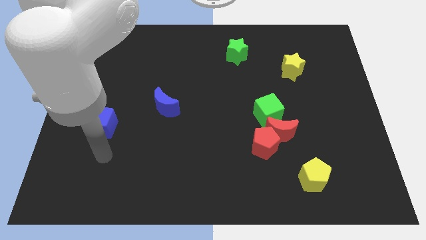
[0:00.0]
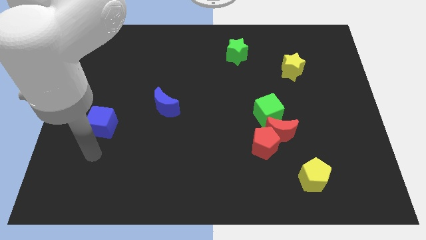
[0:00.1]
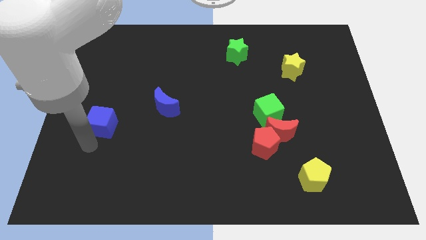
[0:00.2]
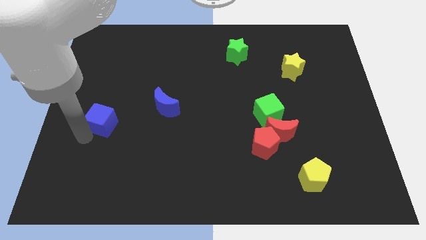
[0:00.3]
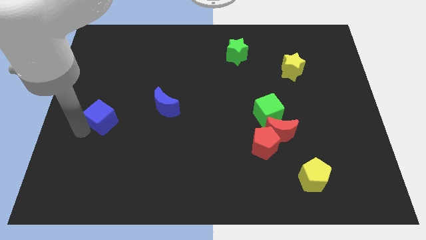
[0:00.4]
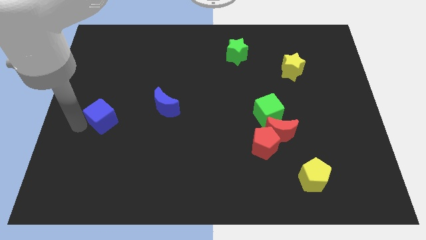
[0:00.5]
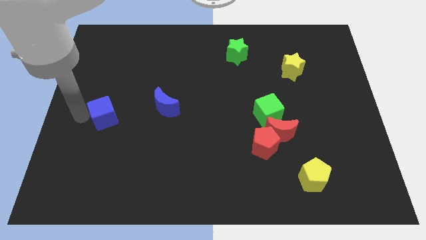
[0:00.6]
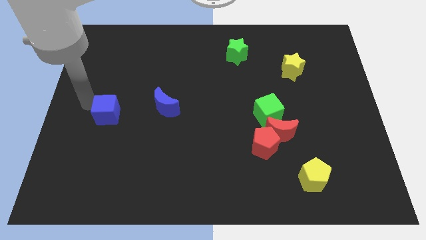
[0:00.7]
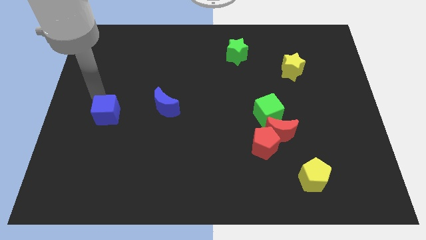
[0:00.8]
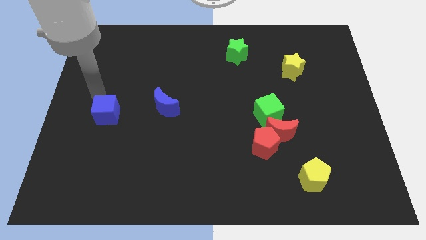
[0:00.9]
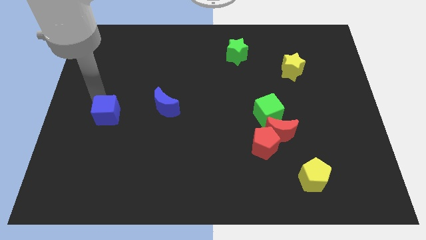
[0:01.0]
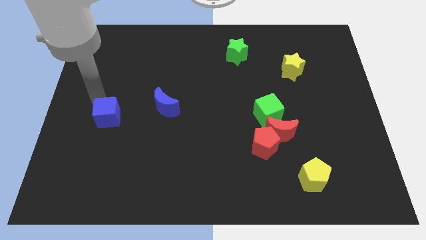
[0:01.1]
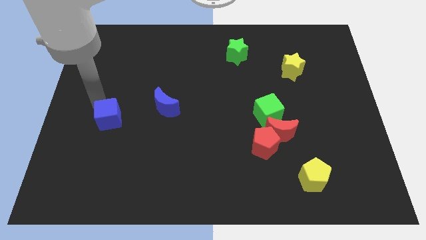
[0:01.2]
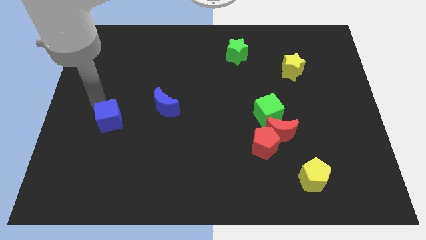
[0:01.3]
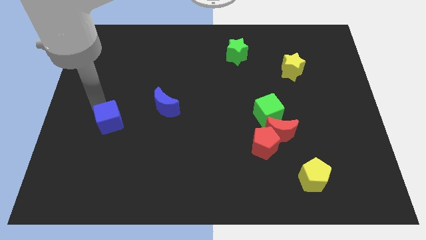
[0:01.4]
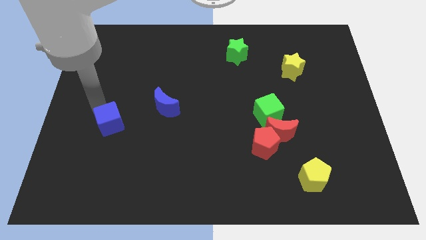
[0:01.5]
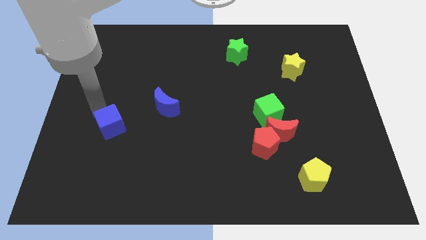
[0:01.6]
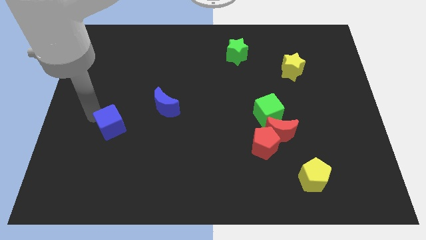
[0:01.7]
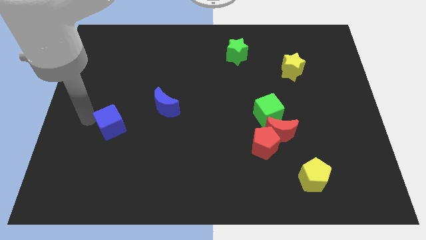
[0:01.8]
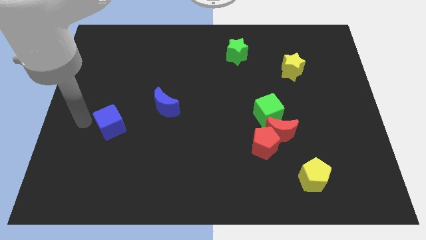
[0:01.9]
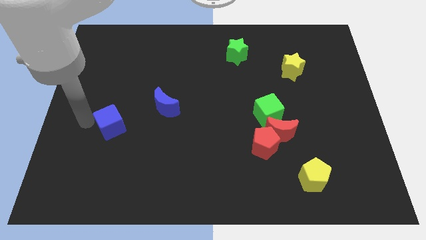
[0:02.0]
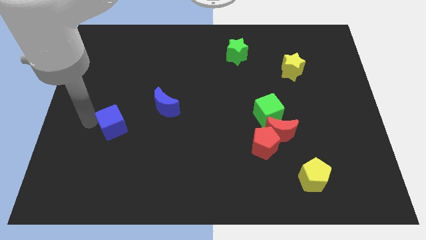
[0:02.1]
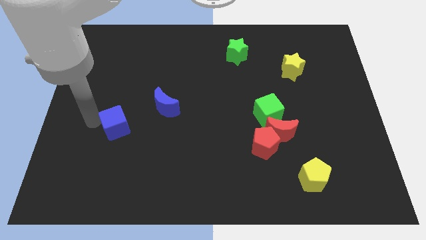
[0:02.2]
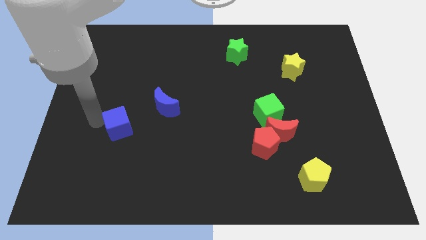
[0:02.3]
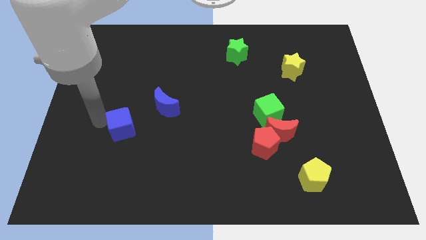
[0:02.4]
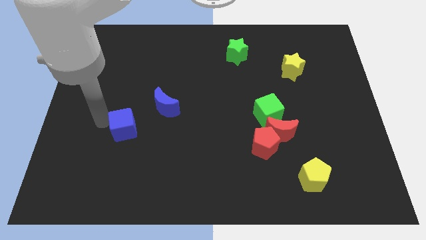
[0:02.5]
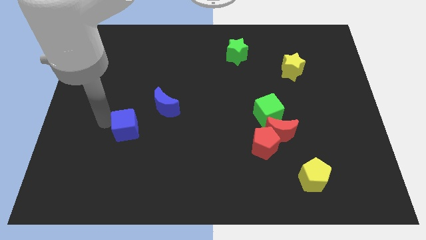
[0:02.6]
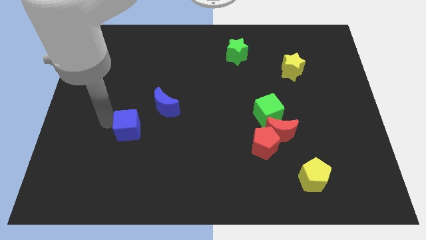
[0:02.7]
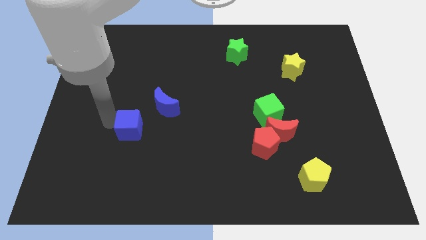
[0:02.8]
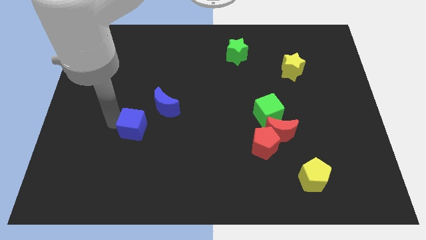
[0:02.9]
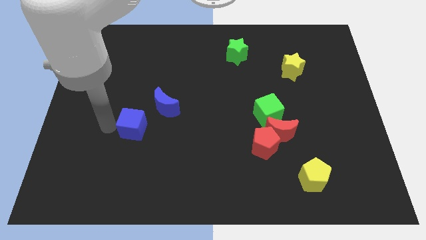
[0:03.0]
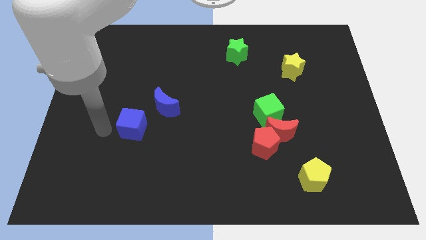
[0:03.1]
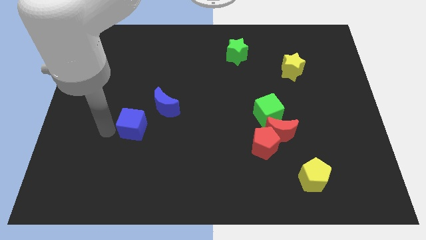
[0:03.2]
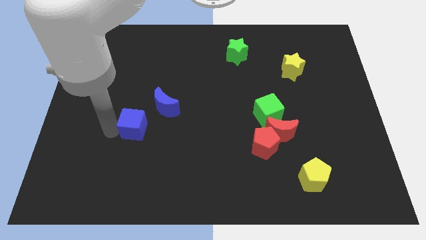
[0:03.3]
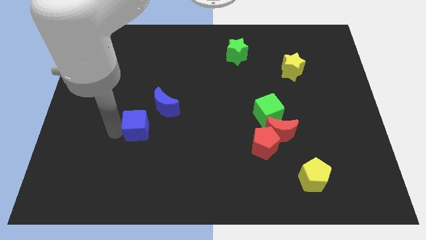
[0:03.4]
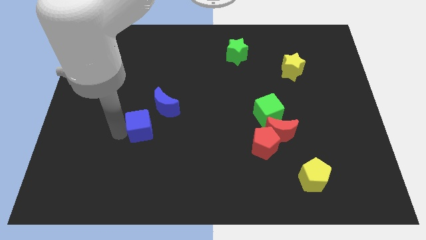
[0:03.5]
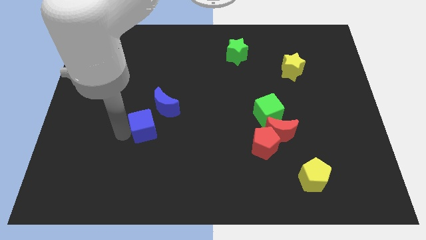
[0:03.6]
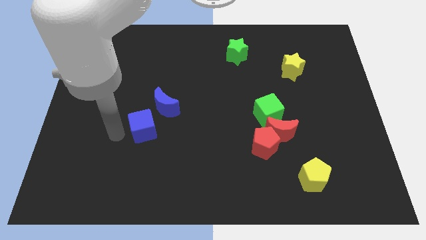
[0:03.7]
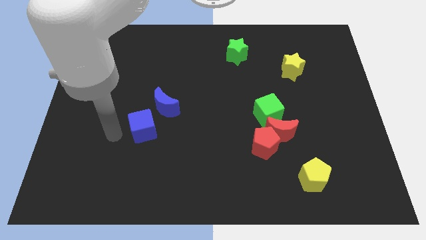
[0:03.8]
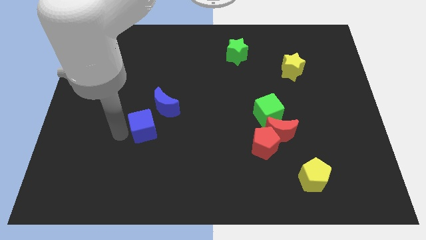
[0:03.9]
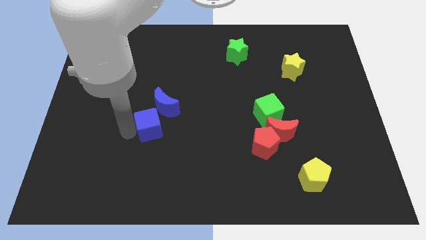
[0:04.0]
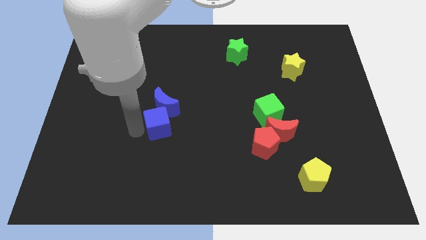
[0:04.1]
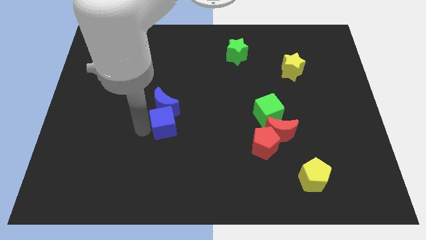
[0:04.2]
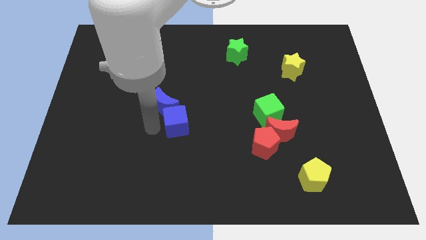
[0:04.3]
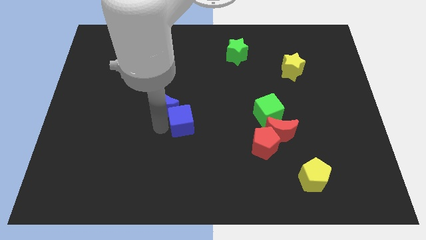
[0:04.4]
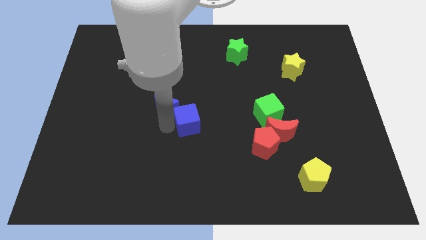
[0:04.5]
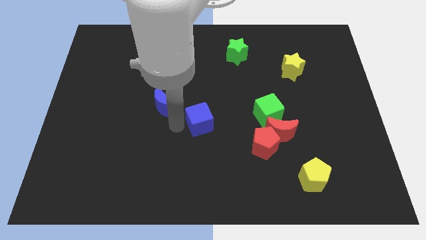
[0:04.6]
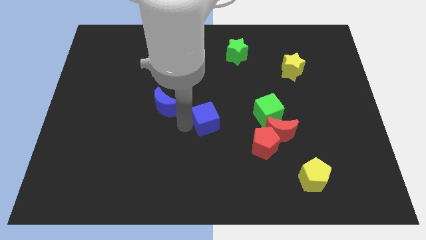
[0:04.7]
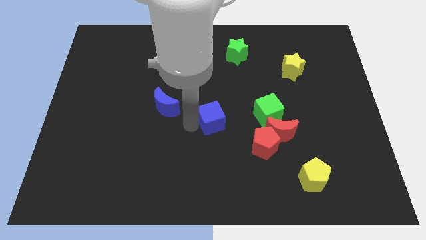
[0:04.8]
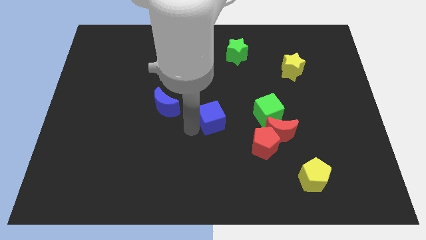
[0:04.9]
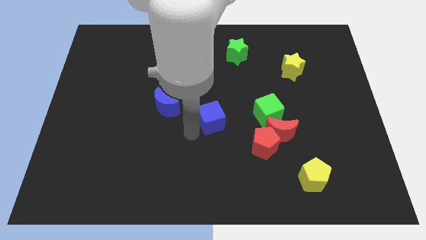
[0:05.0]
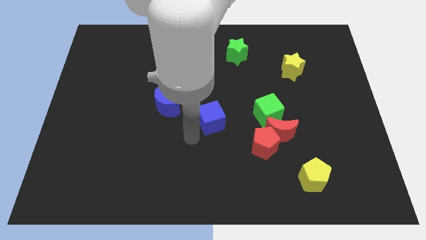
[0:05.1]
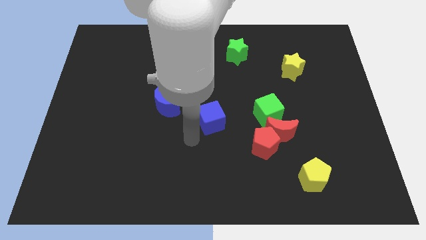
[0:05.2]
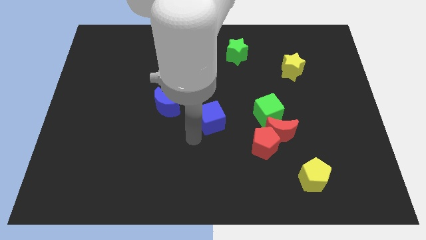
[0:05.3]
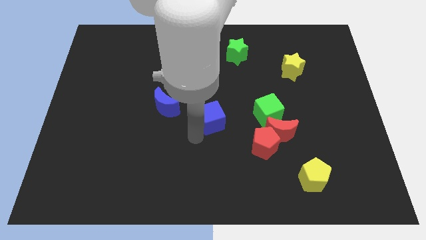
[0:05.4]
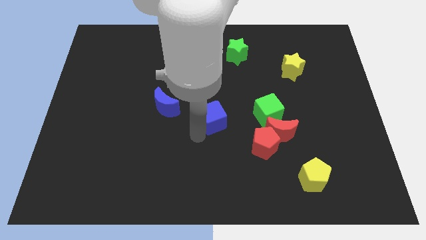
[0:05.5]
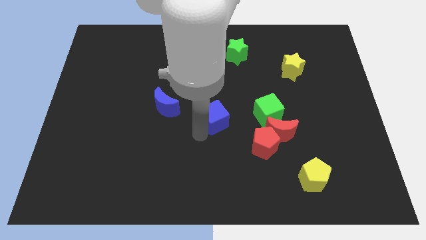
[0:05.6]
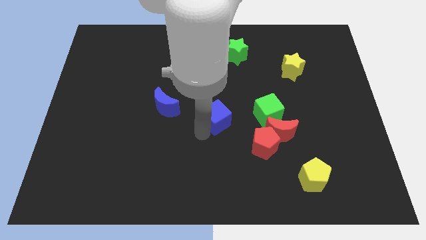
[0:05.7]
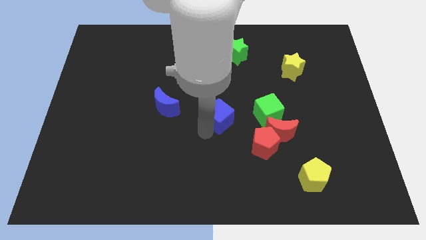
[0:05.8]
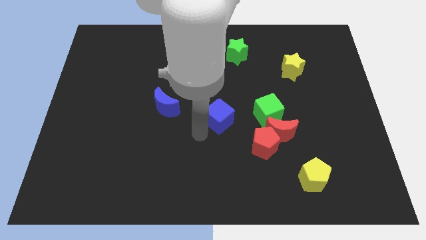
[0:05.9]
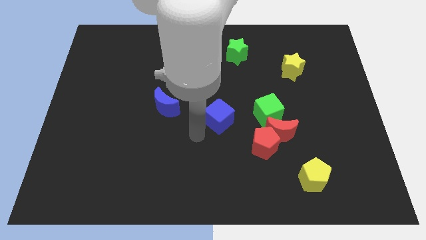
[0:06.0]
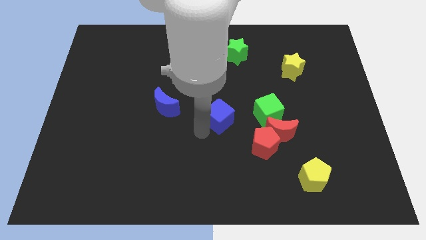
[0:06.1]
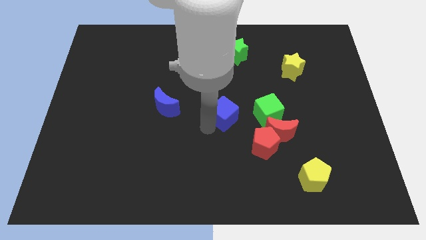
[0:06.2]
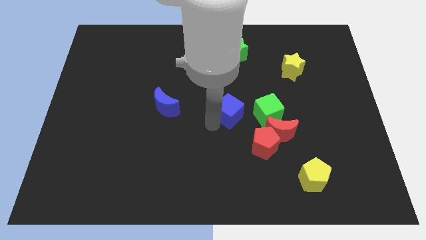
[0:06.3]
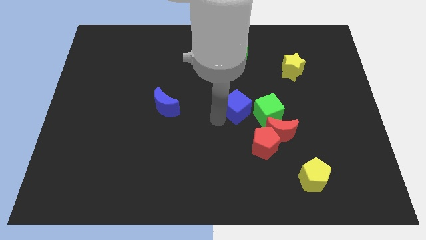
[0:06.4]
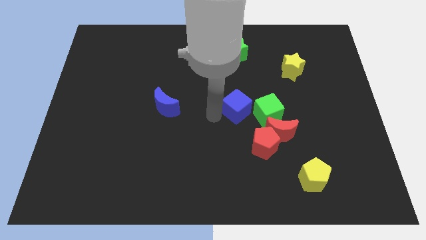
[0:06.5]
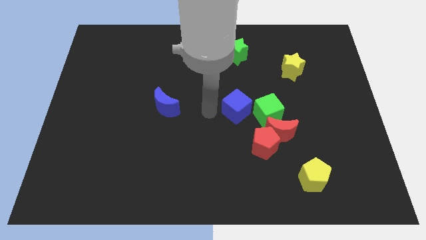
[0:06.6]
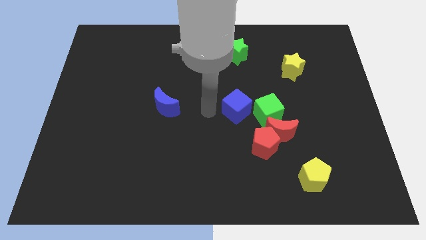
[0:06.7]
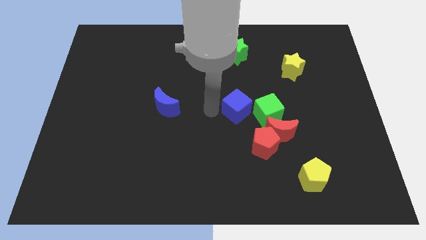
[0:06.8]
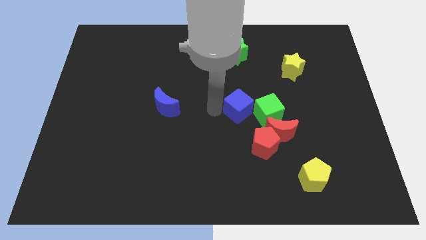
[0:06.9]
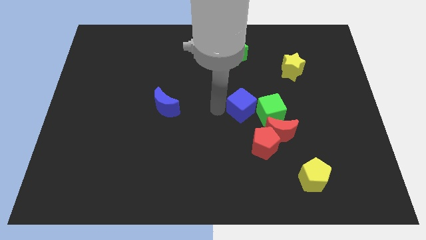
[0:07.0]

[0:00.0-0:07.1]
slide the blue cube to the top of the red pentagon
